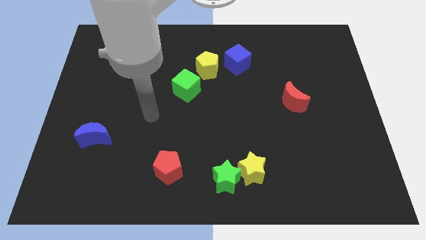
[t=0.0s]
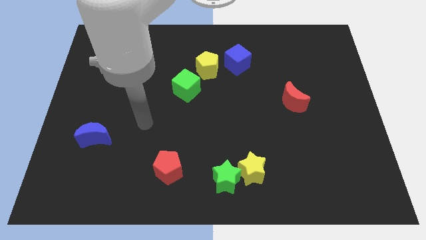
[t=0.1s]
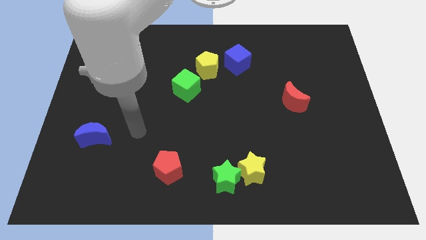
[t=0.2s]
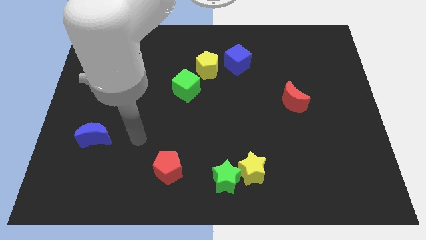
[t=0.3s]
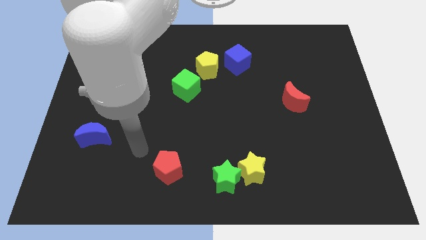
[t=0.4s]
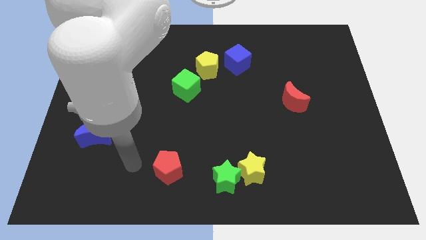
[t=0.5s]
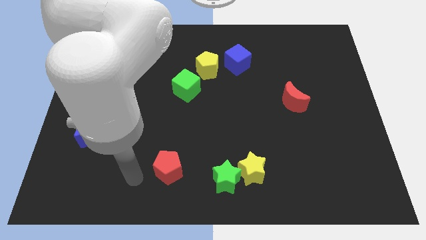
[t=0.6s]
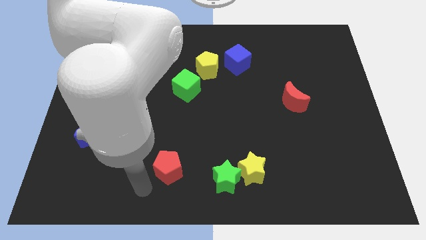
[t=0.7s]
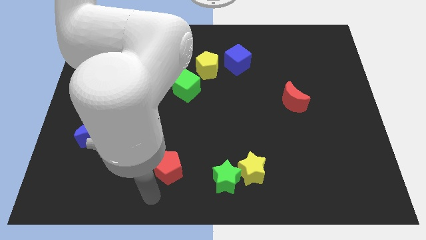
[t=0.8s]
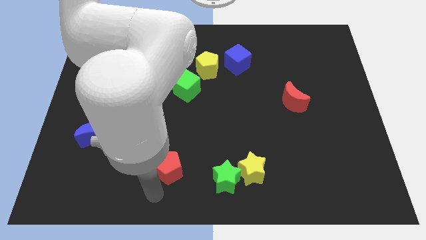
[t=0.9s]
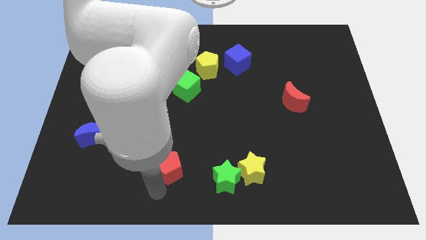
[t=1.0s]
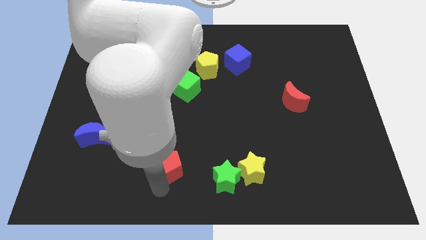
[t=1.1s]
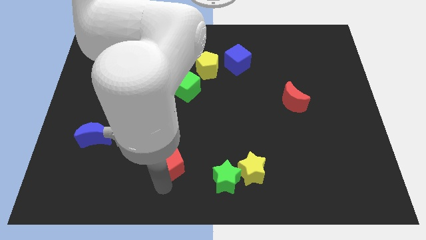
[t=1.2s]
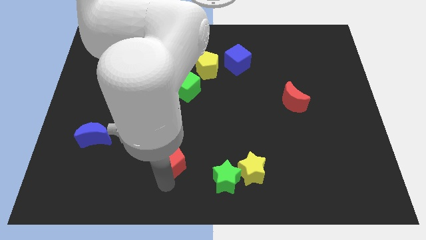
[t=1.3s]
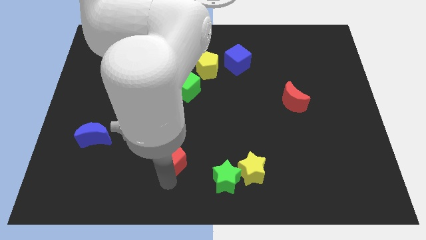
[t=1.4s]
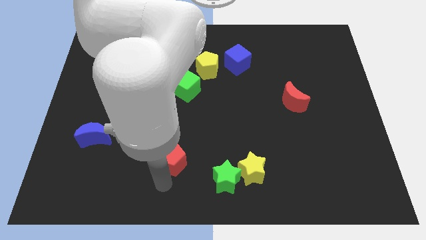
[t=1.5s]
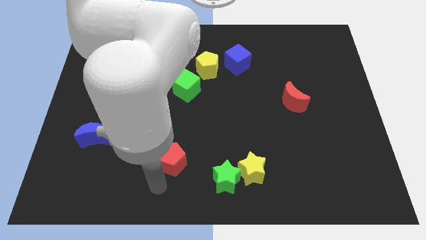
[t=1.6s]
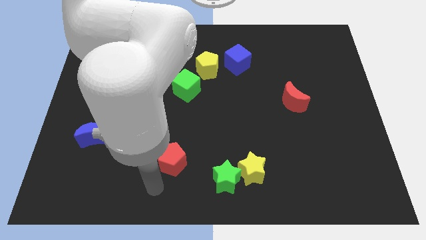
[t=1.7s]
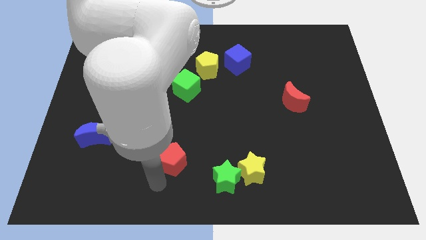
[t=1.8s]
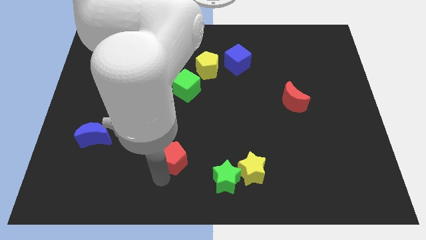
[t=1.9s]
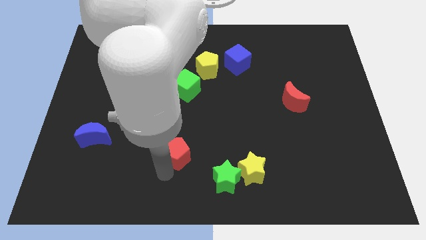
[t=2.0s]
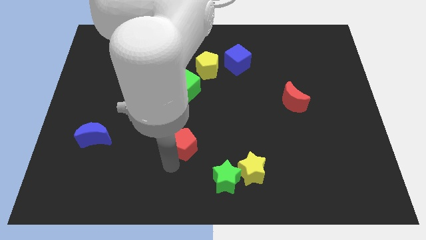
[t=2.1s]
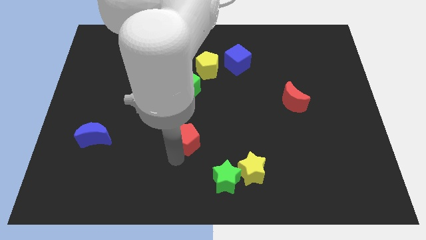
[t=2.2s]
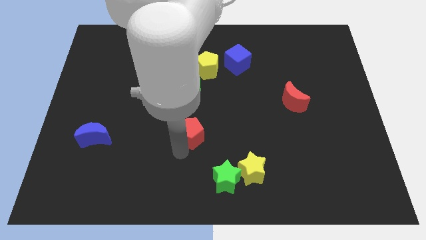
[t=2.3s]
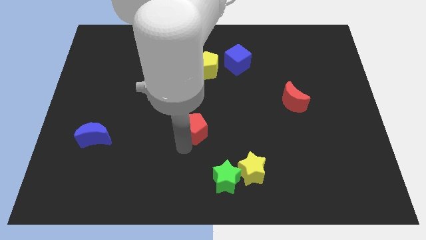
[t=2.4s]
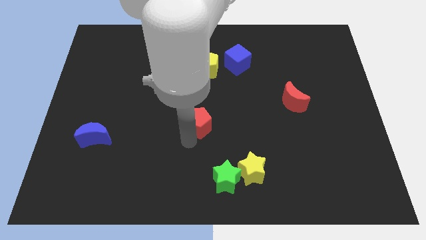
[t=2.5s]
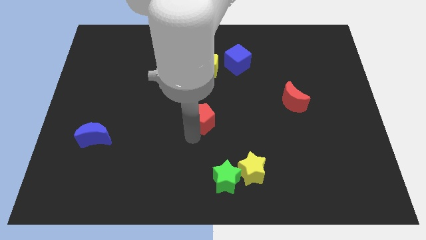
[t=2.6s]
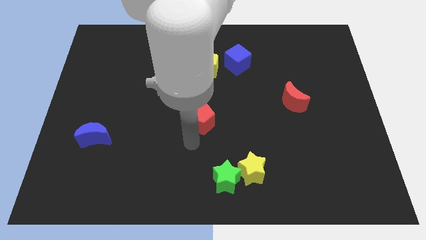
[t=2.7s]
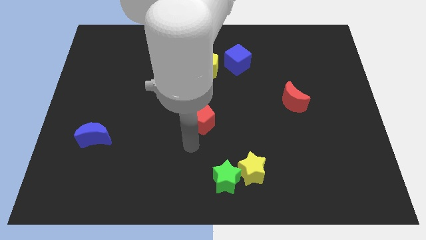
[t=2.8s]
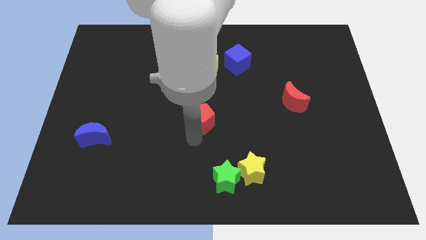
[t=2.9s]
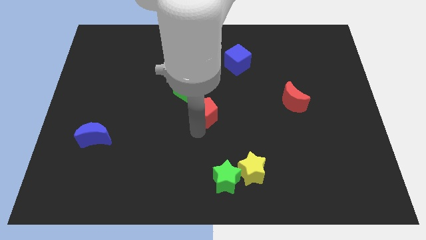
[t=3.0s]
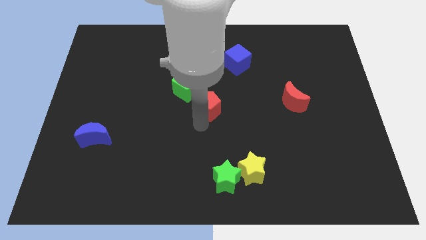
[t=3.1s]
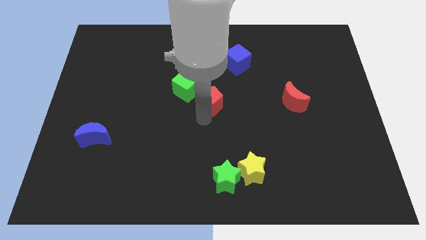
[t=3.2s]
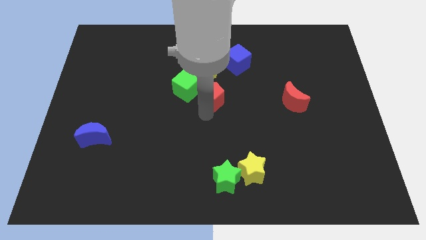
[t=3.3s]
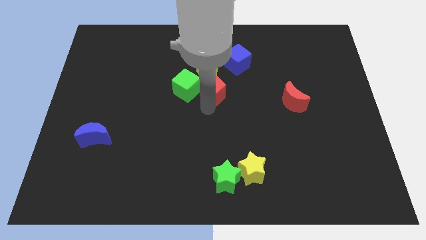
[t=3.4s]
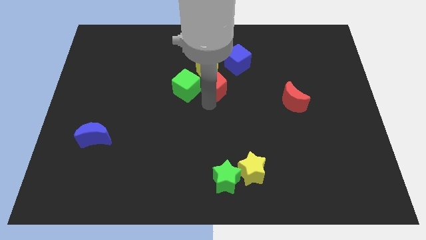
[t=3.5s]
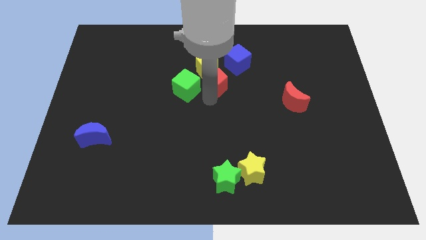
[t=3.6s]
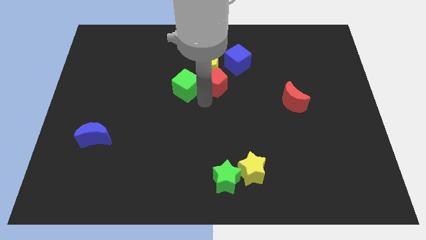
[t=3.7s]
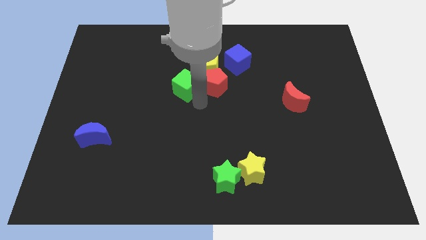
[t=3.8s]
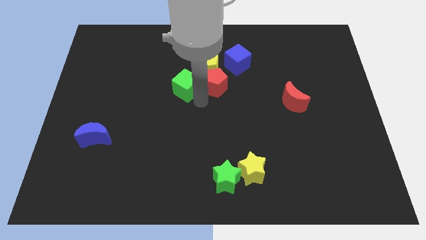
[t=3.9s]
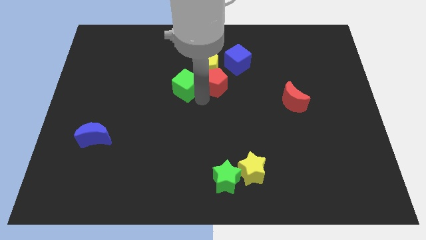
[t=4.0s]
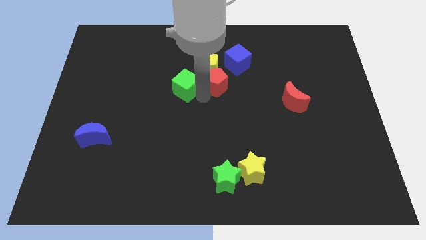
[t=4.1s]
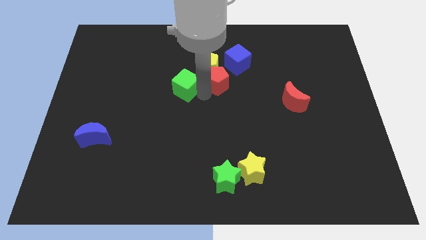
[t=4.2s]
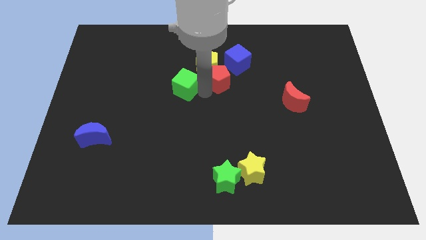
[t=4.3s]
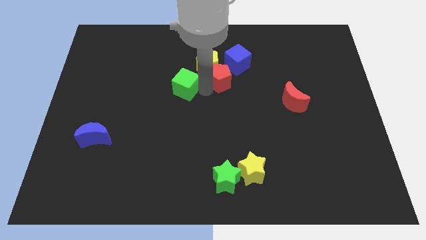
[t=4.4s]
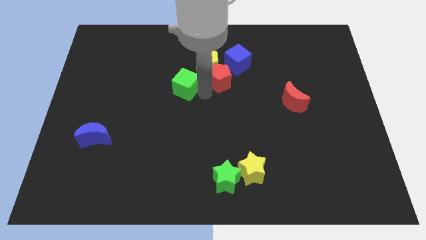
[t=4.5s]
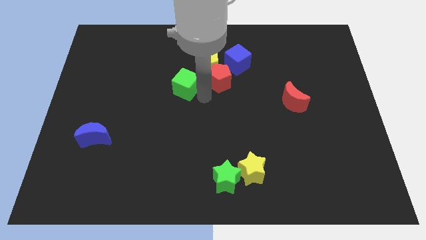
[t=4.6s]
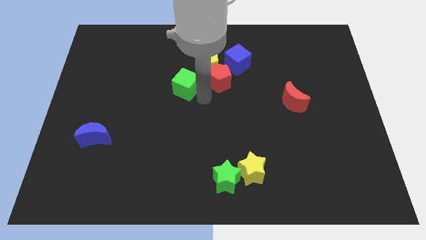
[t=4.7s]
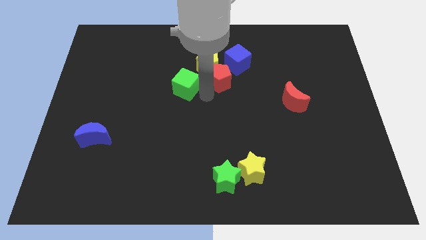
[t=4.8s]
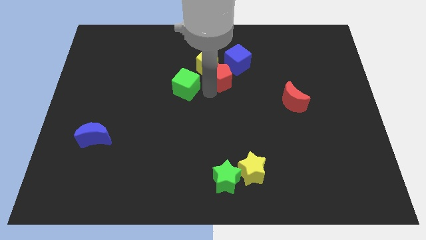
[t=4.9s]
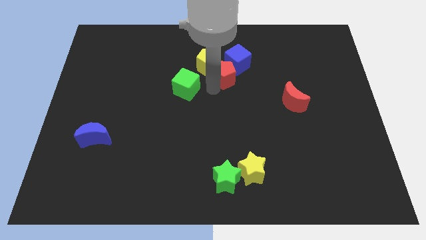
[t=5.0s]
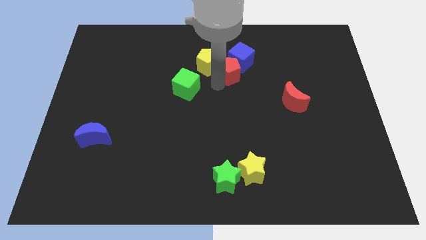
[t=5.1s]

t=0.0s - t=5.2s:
move the red pentagon towards the blue cube

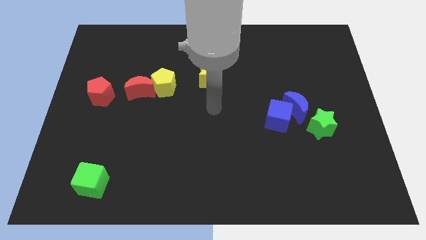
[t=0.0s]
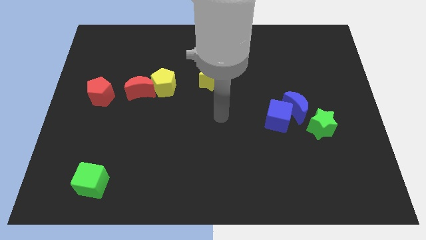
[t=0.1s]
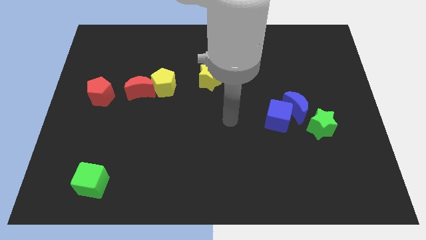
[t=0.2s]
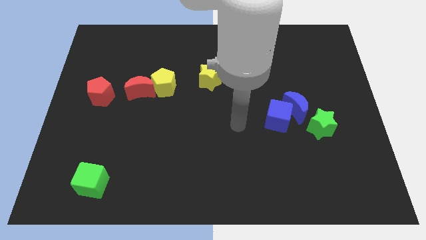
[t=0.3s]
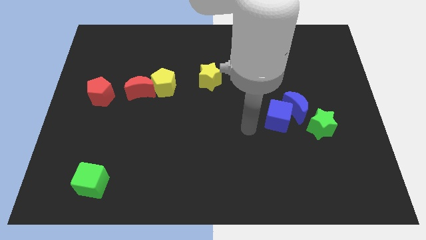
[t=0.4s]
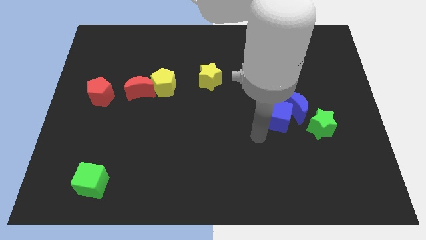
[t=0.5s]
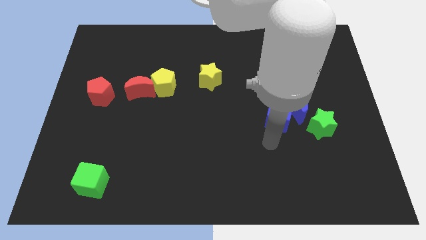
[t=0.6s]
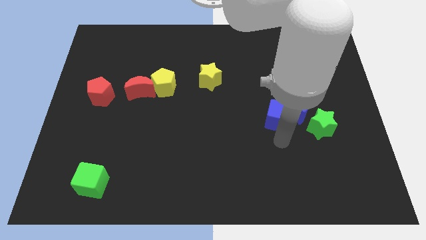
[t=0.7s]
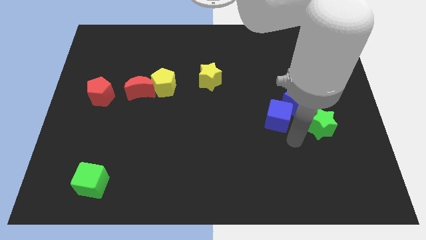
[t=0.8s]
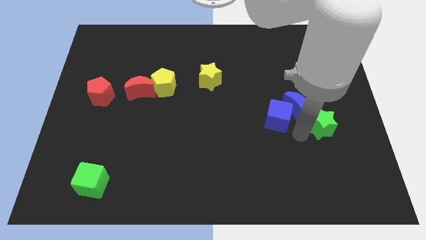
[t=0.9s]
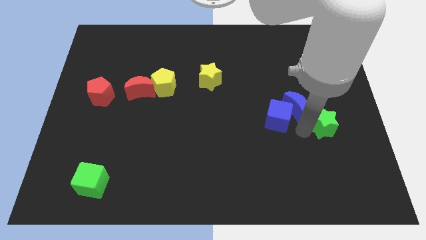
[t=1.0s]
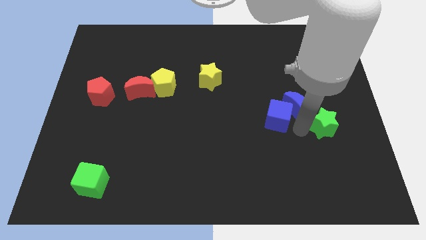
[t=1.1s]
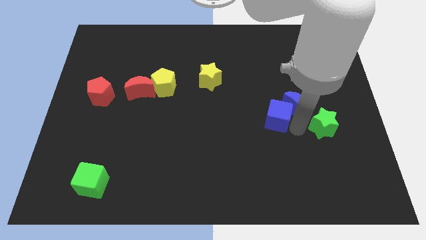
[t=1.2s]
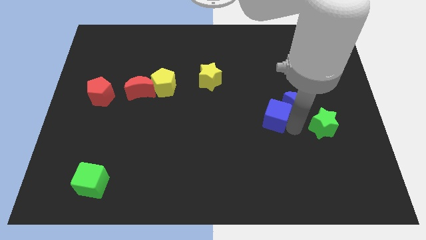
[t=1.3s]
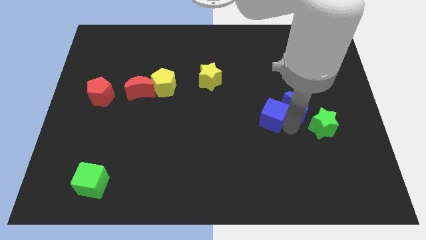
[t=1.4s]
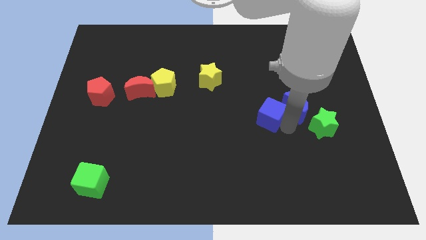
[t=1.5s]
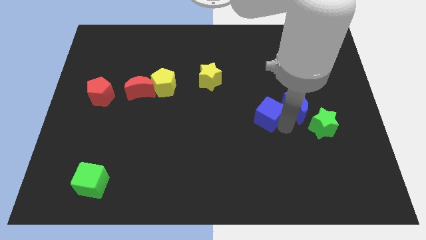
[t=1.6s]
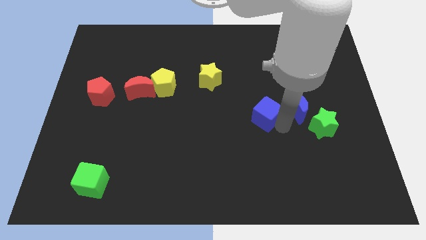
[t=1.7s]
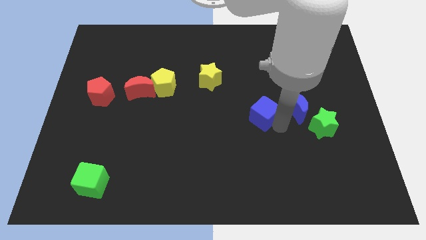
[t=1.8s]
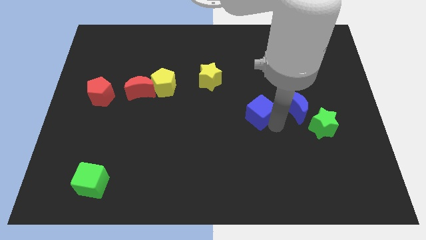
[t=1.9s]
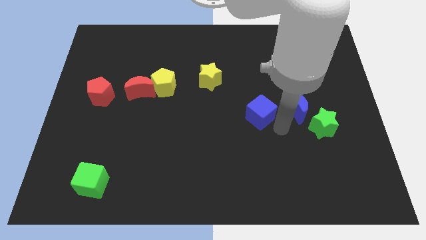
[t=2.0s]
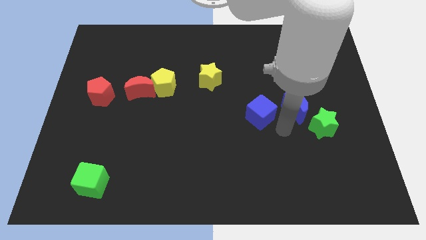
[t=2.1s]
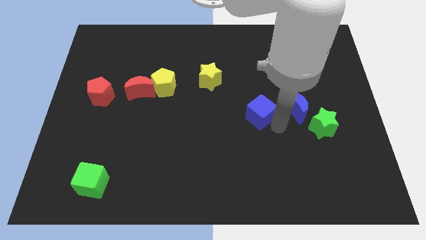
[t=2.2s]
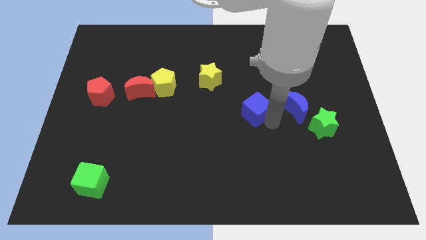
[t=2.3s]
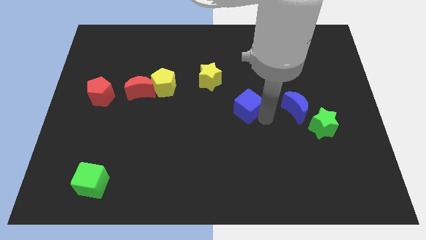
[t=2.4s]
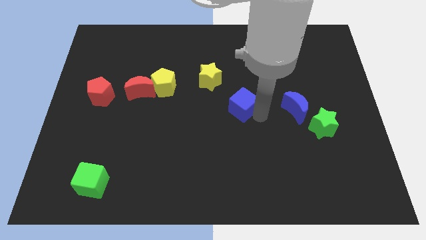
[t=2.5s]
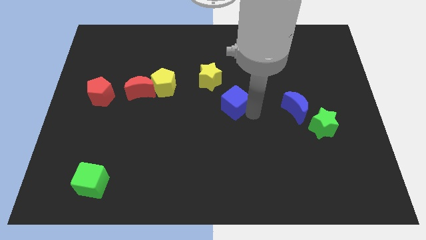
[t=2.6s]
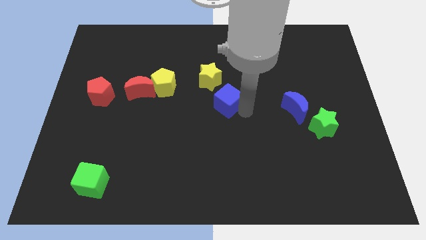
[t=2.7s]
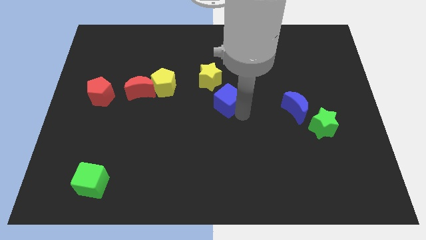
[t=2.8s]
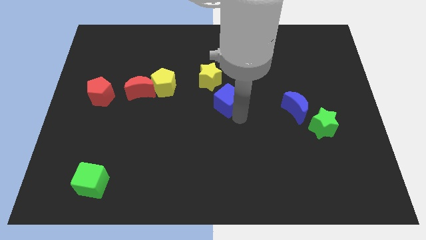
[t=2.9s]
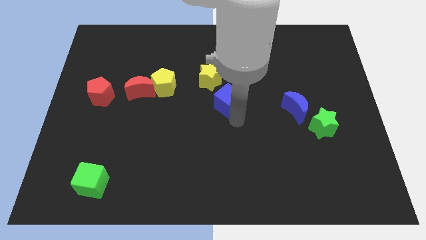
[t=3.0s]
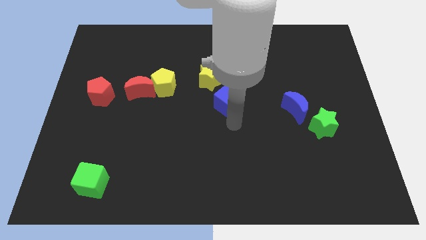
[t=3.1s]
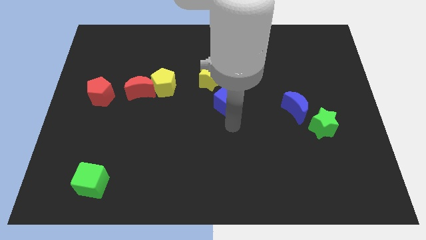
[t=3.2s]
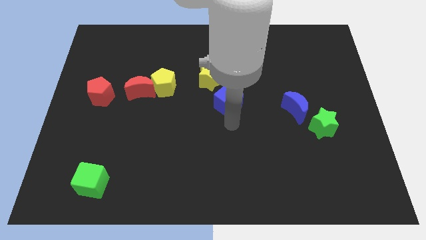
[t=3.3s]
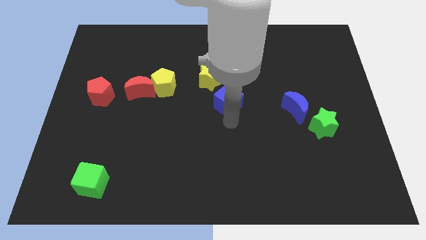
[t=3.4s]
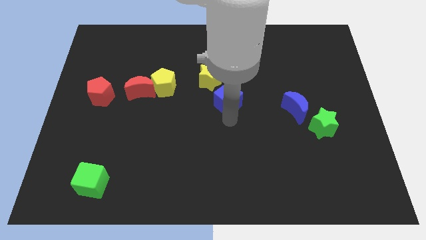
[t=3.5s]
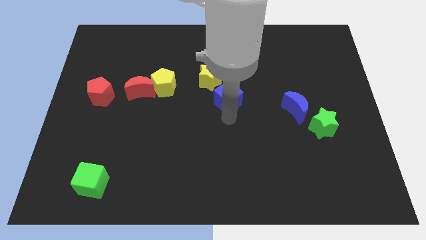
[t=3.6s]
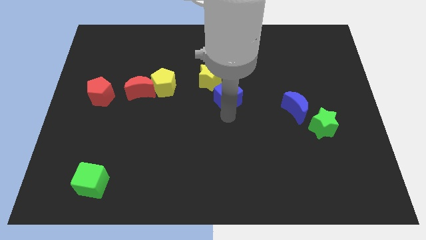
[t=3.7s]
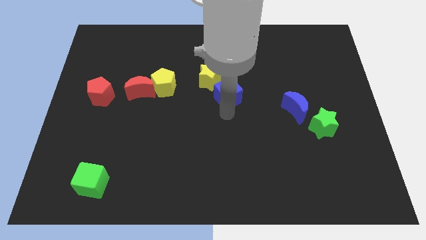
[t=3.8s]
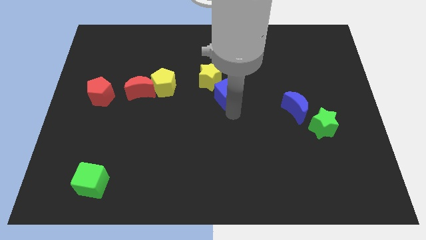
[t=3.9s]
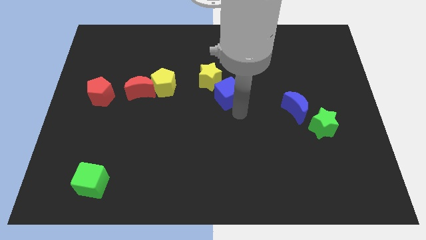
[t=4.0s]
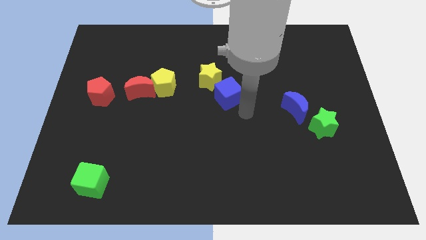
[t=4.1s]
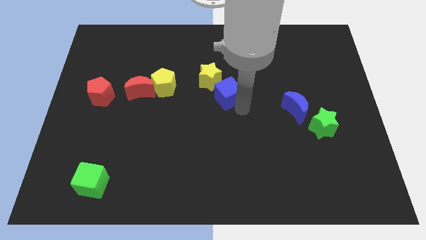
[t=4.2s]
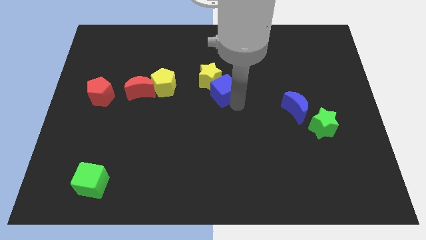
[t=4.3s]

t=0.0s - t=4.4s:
put the blue cube close to the yellow star
